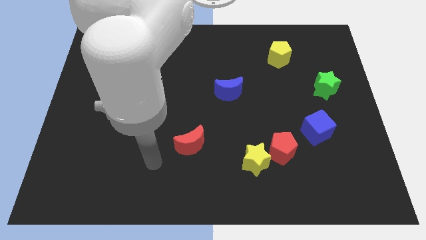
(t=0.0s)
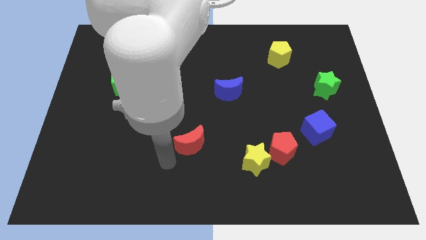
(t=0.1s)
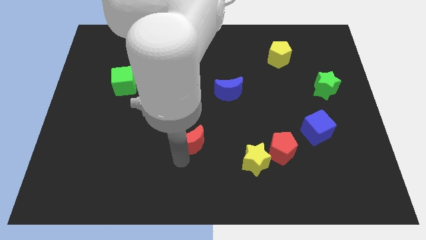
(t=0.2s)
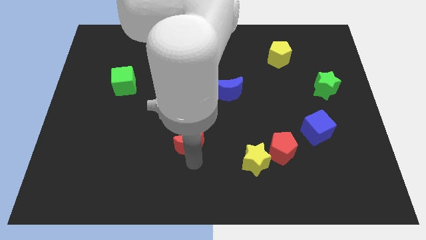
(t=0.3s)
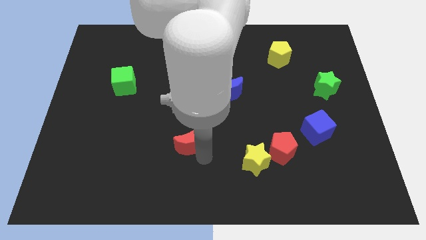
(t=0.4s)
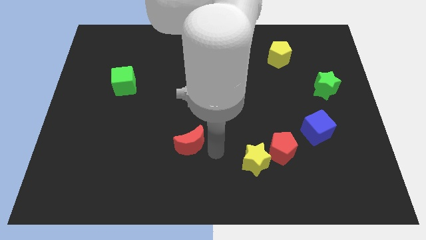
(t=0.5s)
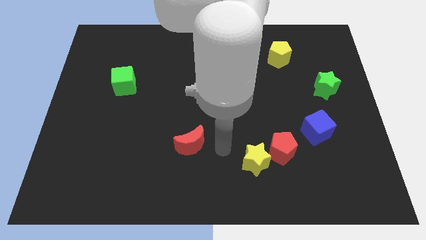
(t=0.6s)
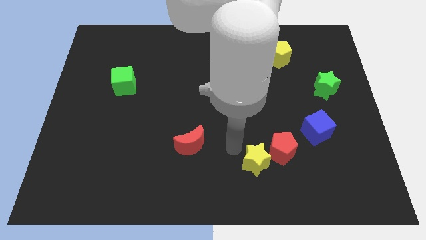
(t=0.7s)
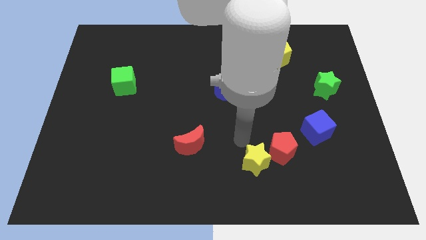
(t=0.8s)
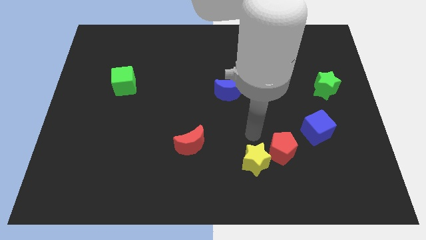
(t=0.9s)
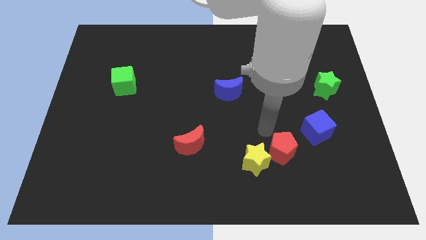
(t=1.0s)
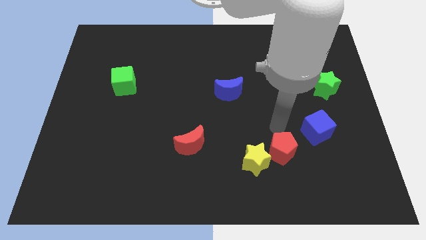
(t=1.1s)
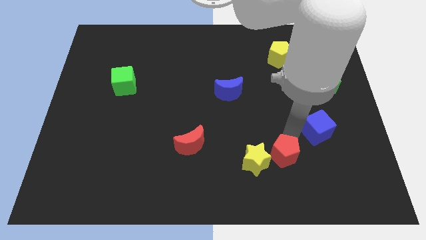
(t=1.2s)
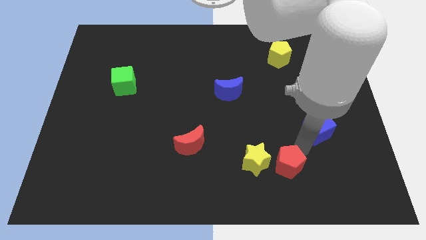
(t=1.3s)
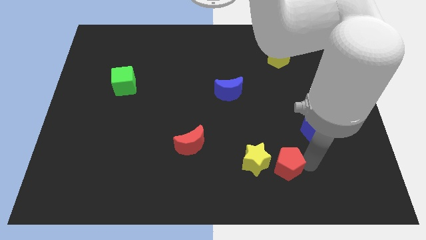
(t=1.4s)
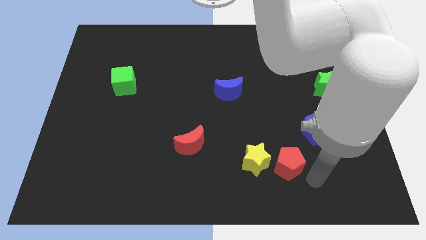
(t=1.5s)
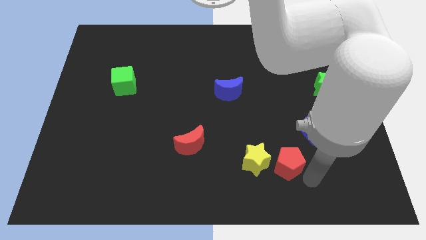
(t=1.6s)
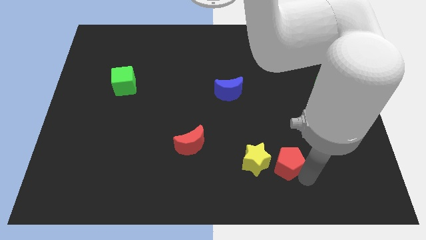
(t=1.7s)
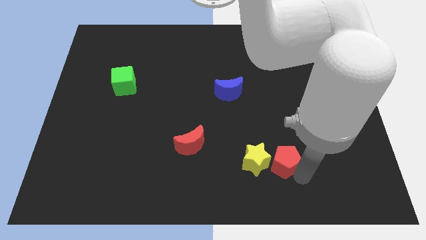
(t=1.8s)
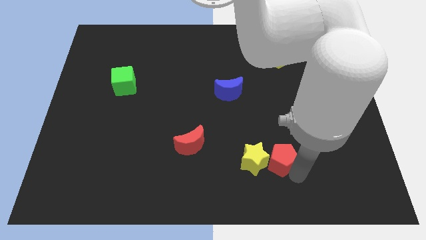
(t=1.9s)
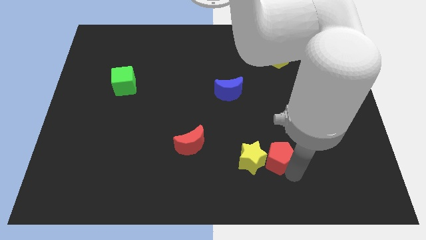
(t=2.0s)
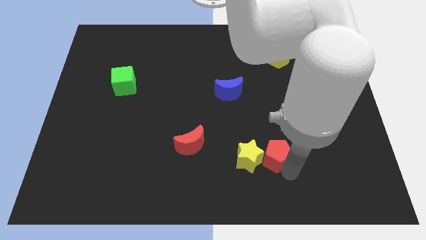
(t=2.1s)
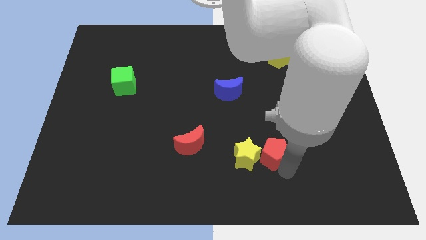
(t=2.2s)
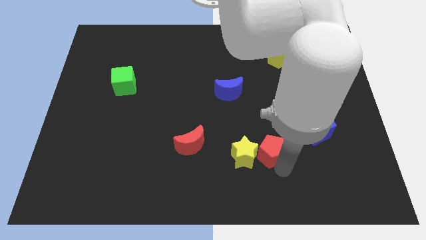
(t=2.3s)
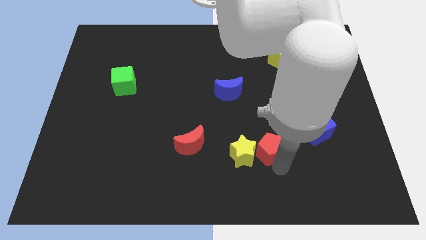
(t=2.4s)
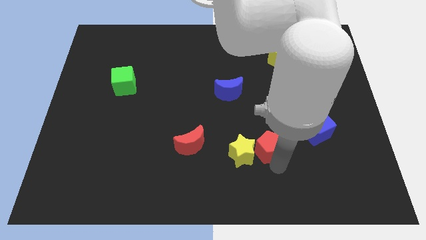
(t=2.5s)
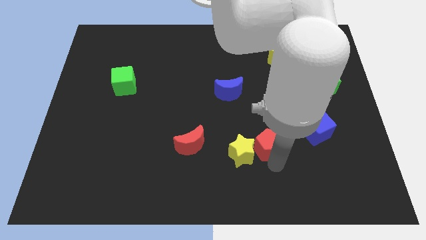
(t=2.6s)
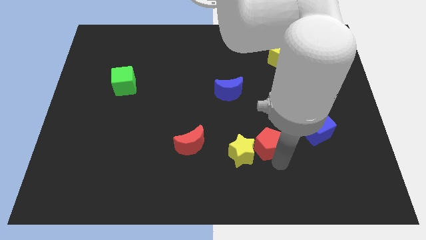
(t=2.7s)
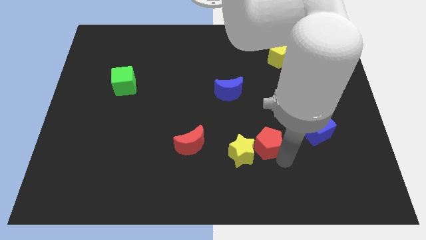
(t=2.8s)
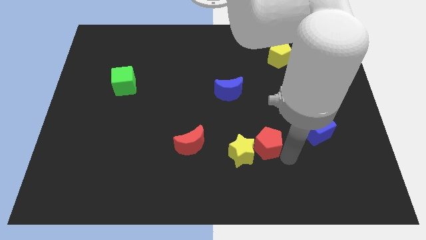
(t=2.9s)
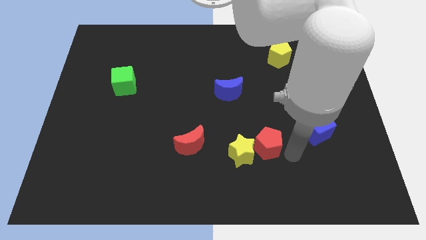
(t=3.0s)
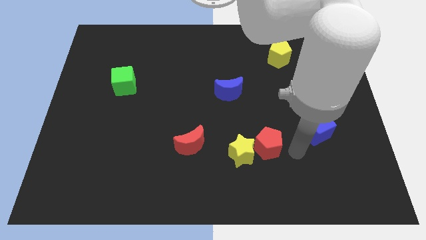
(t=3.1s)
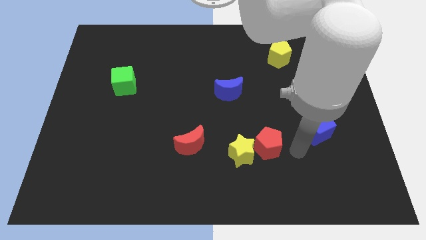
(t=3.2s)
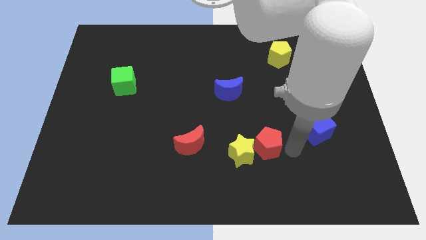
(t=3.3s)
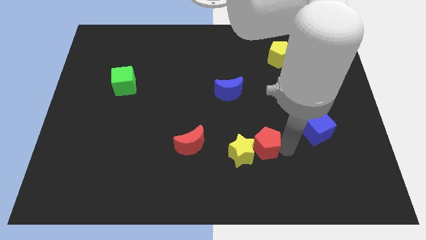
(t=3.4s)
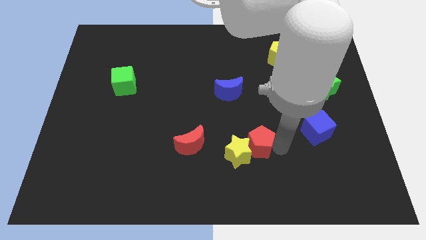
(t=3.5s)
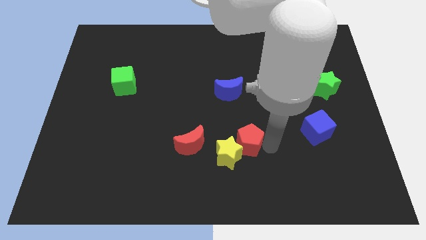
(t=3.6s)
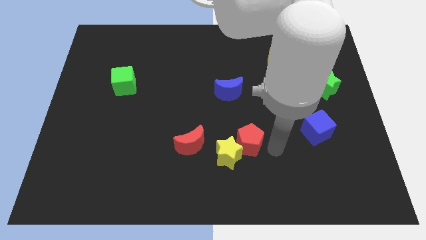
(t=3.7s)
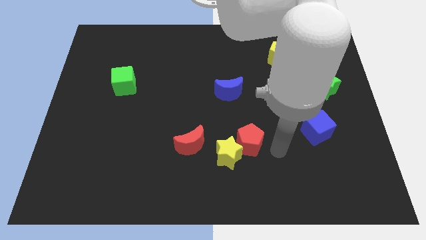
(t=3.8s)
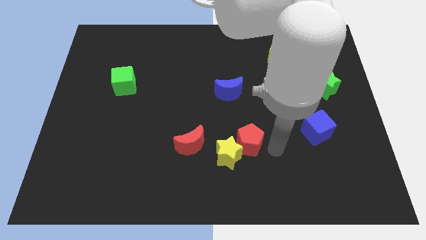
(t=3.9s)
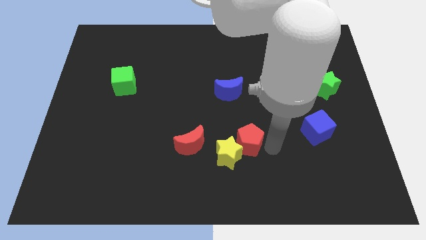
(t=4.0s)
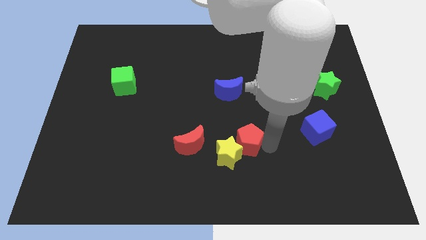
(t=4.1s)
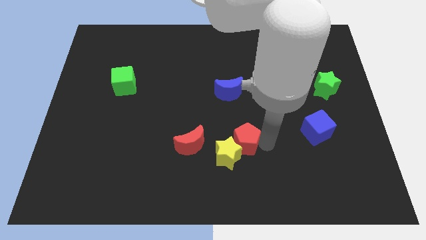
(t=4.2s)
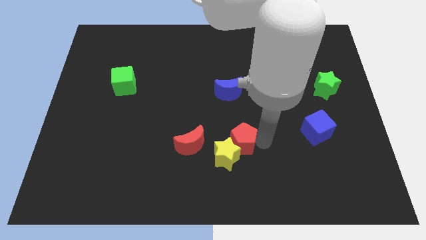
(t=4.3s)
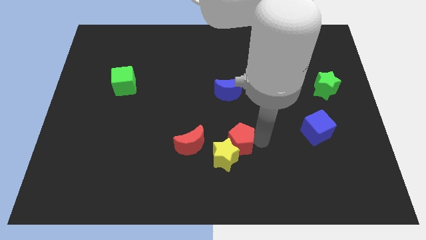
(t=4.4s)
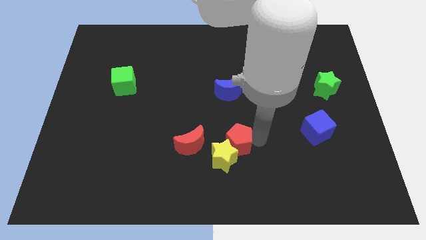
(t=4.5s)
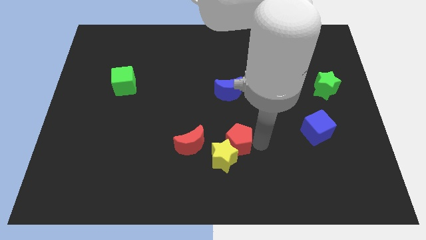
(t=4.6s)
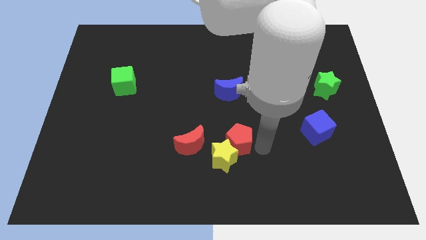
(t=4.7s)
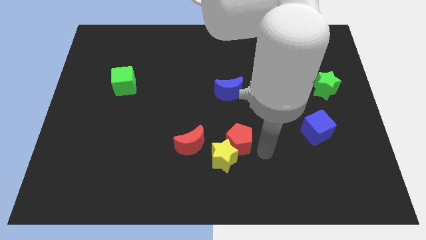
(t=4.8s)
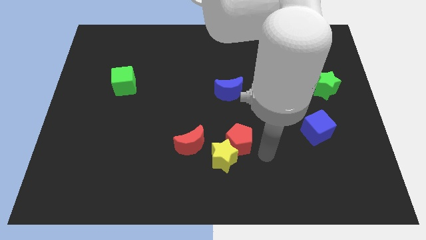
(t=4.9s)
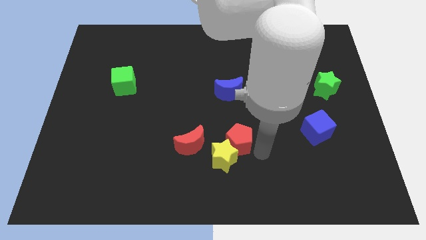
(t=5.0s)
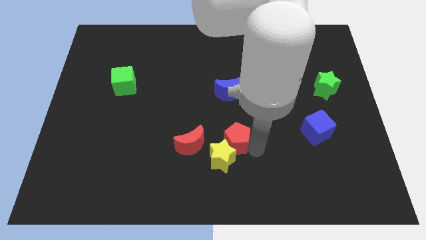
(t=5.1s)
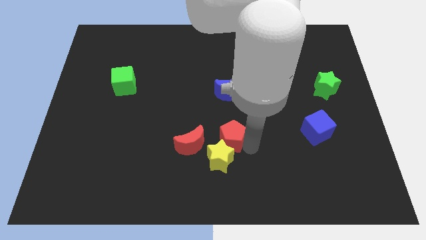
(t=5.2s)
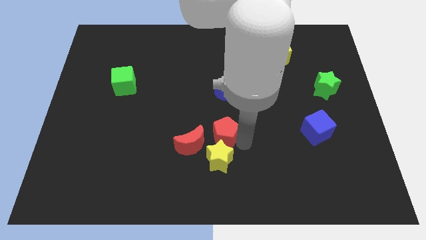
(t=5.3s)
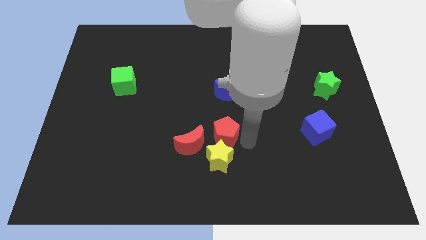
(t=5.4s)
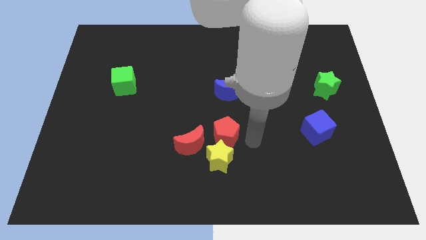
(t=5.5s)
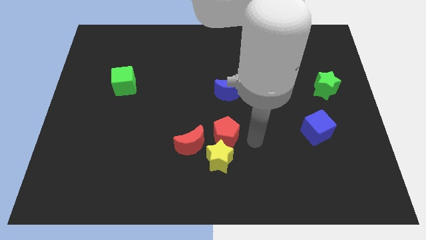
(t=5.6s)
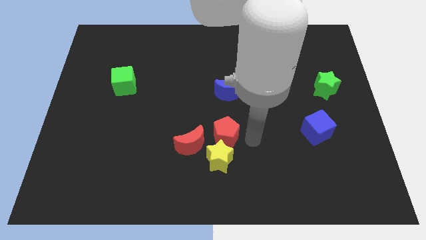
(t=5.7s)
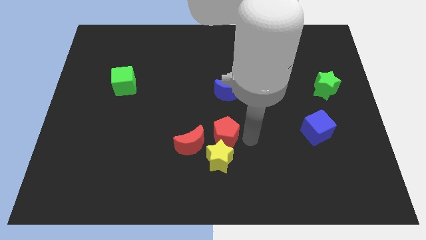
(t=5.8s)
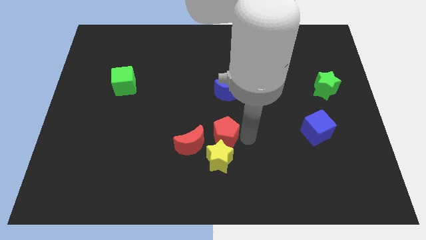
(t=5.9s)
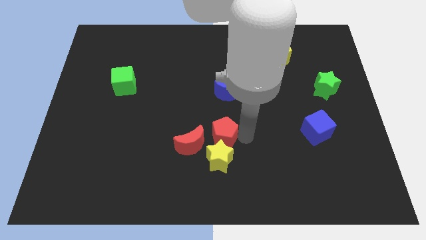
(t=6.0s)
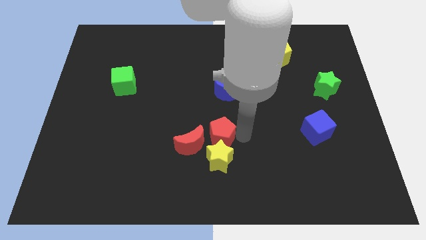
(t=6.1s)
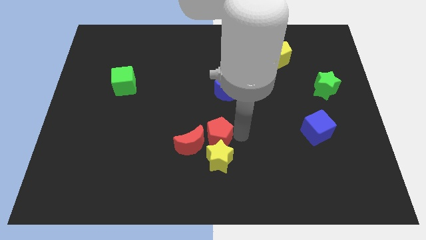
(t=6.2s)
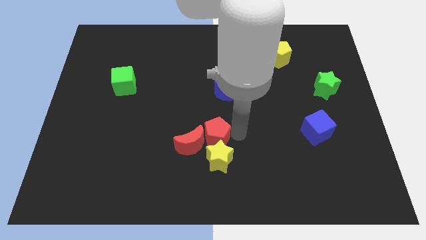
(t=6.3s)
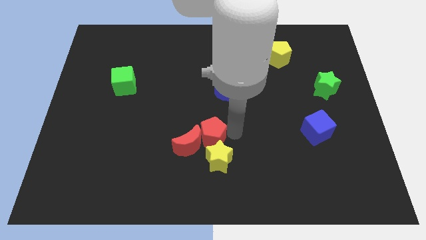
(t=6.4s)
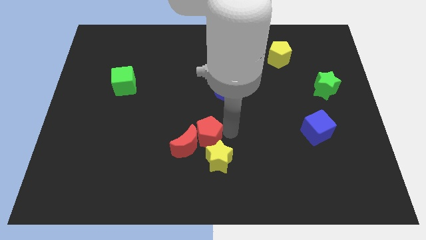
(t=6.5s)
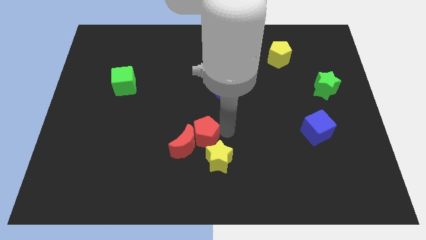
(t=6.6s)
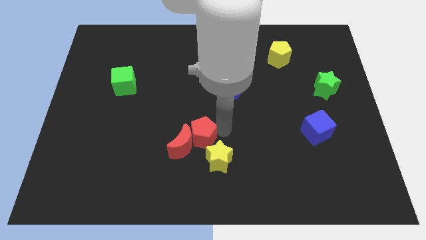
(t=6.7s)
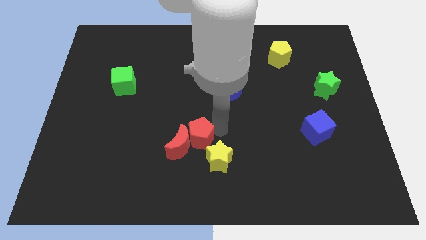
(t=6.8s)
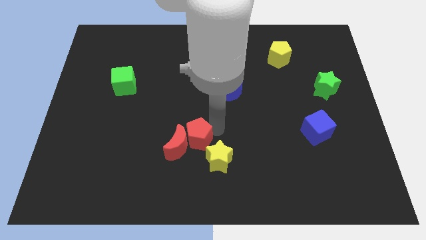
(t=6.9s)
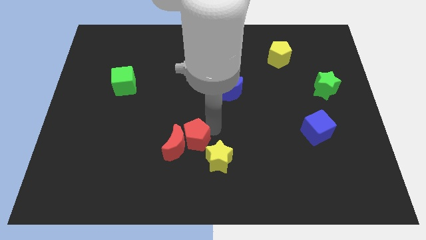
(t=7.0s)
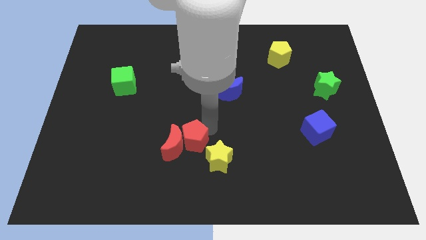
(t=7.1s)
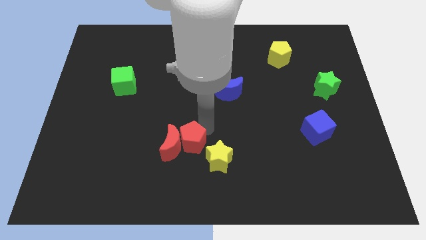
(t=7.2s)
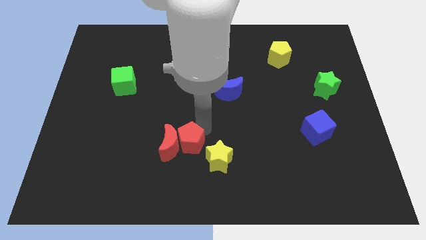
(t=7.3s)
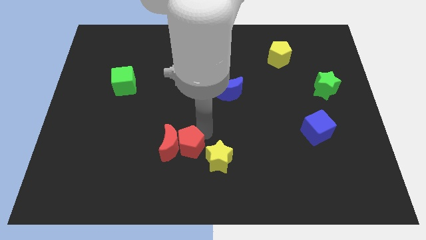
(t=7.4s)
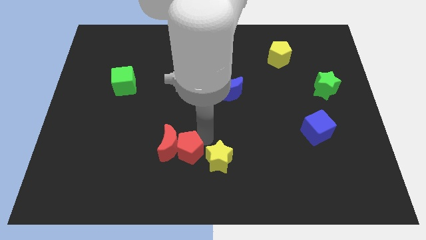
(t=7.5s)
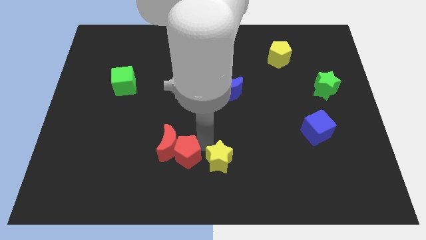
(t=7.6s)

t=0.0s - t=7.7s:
move the red pentagon to the left
